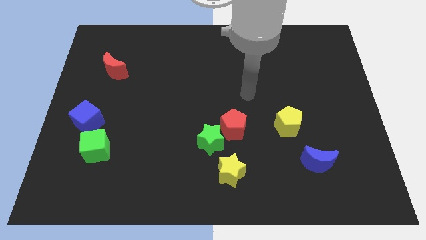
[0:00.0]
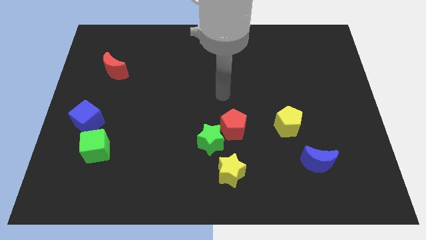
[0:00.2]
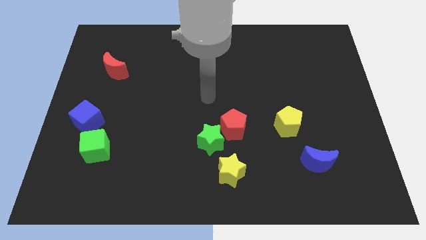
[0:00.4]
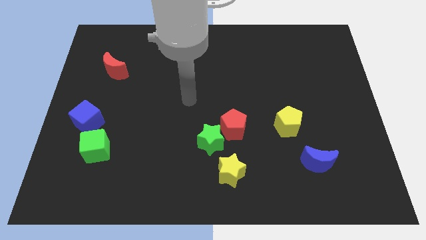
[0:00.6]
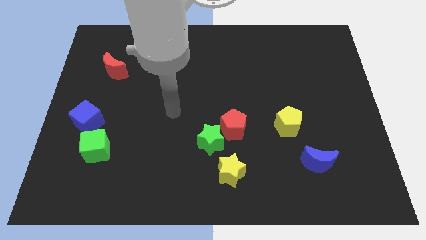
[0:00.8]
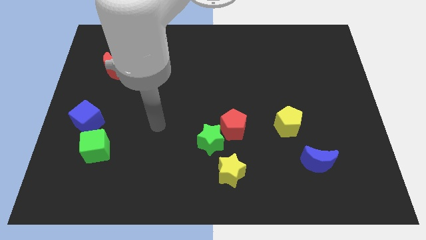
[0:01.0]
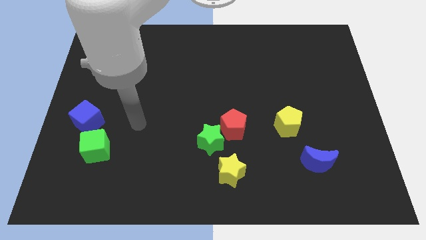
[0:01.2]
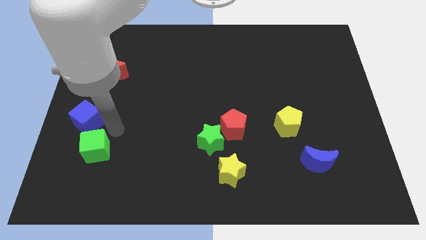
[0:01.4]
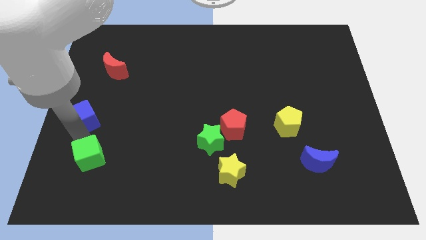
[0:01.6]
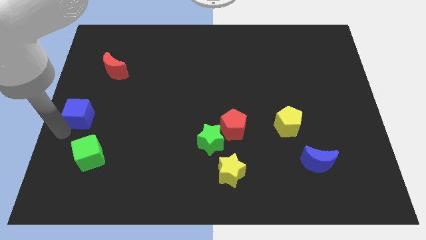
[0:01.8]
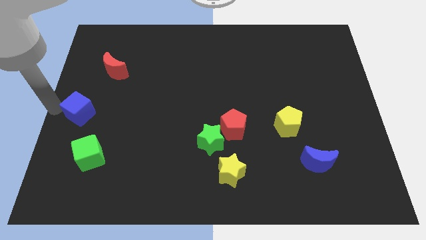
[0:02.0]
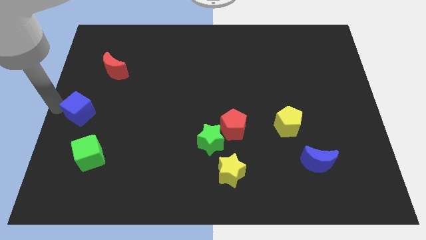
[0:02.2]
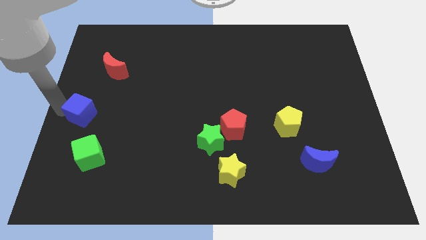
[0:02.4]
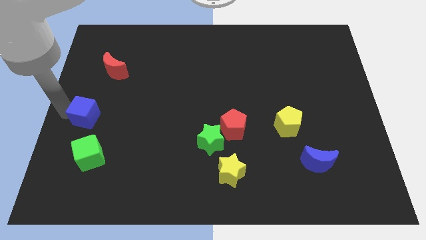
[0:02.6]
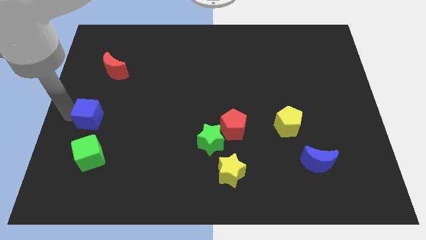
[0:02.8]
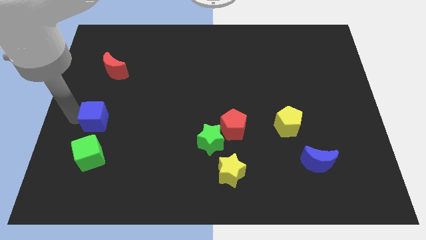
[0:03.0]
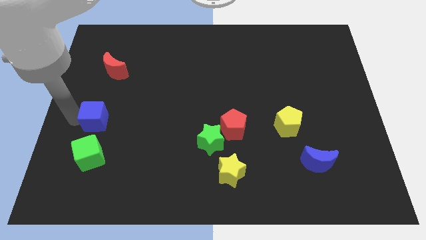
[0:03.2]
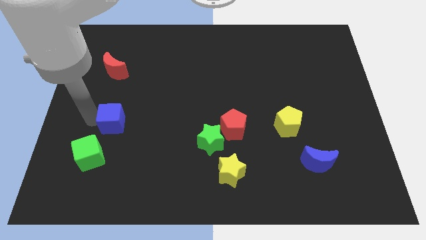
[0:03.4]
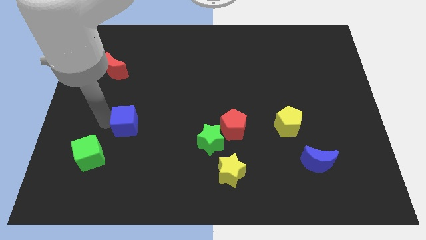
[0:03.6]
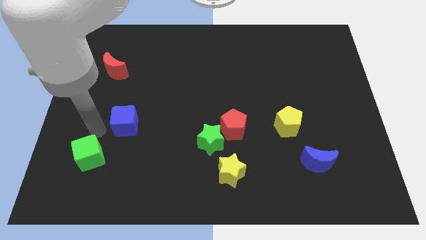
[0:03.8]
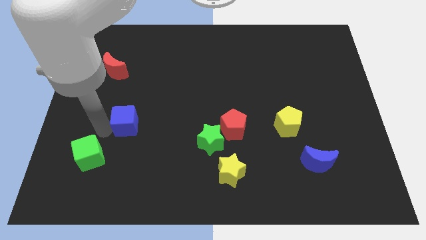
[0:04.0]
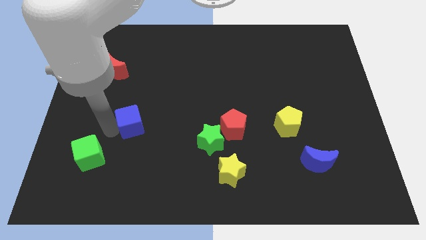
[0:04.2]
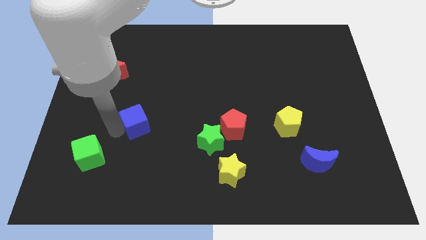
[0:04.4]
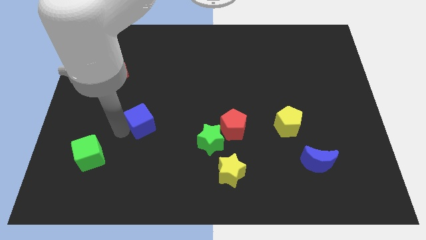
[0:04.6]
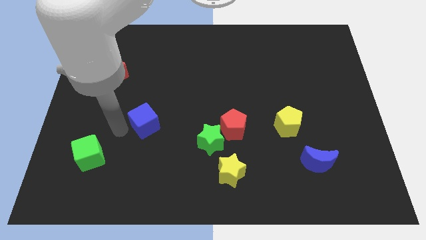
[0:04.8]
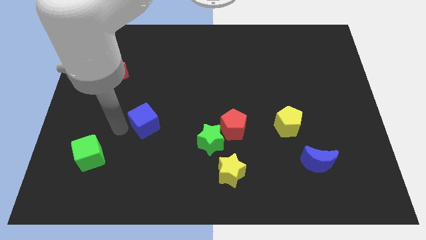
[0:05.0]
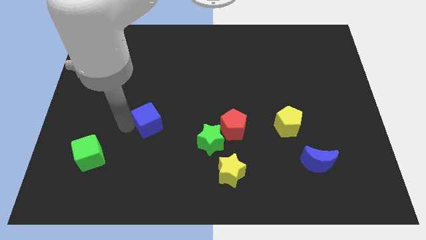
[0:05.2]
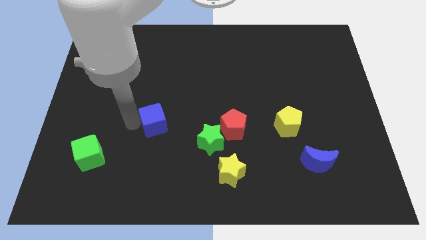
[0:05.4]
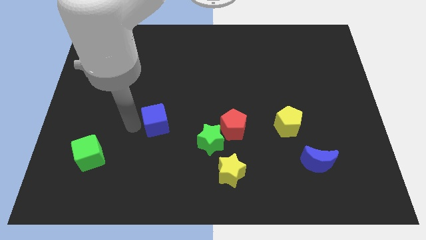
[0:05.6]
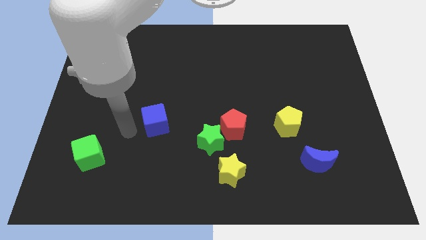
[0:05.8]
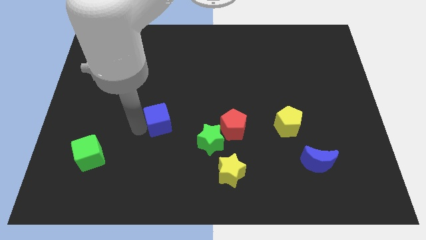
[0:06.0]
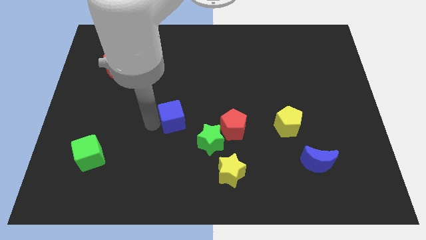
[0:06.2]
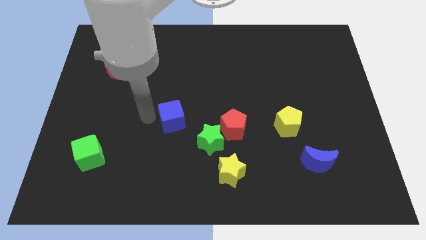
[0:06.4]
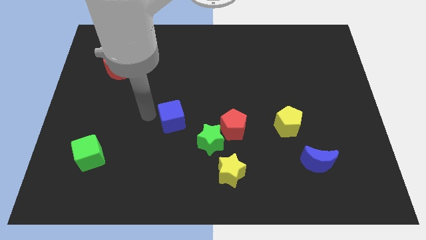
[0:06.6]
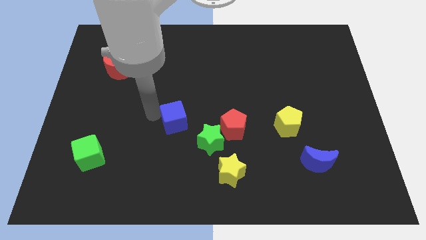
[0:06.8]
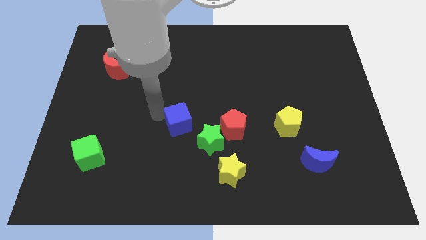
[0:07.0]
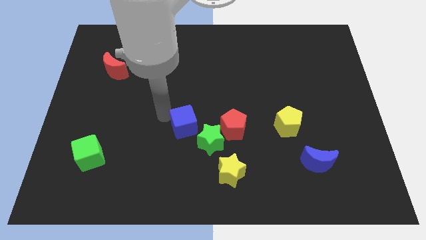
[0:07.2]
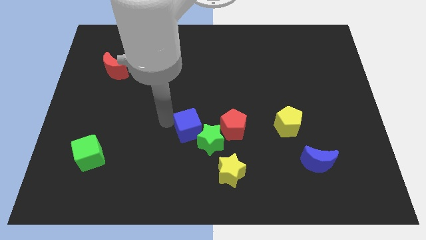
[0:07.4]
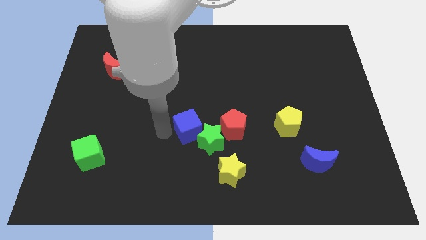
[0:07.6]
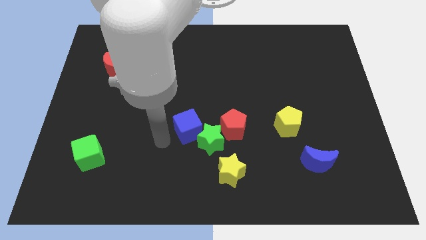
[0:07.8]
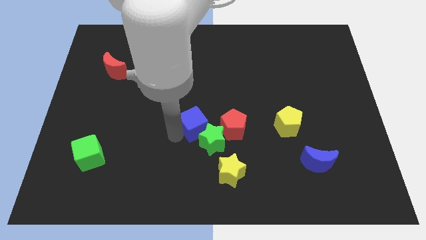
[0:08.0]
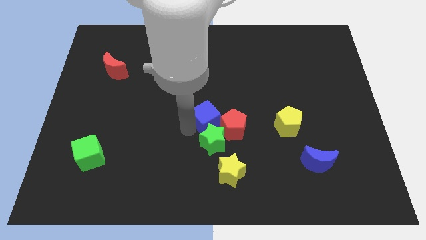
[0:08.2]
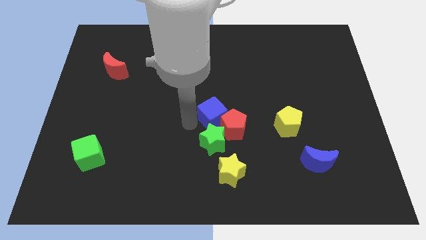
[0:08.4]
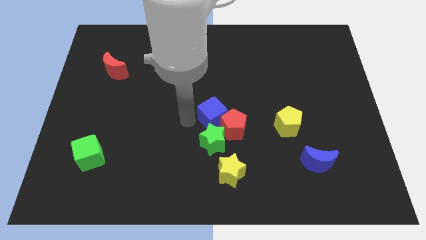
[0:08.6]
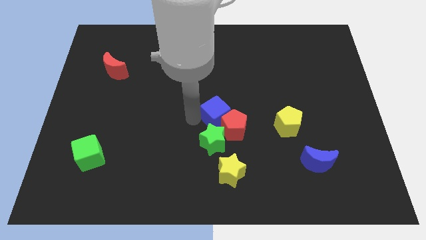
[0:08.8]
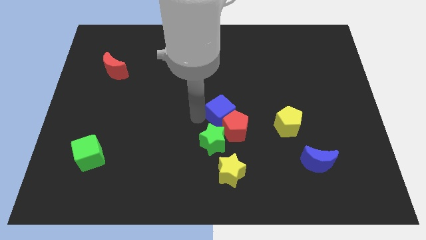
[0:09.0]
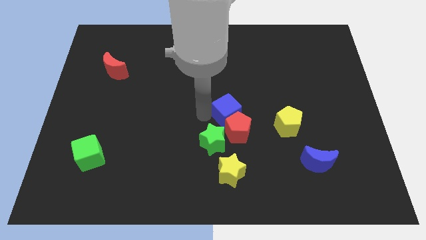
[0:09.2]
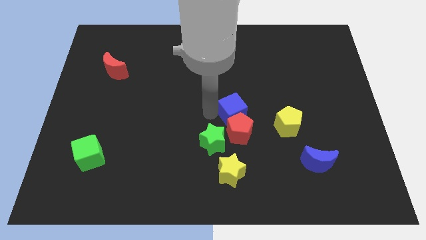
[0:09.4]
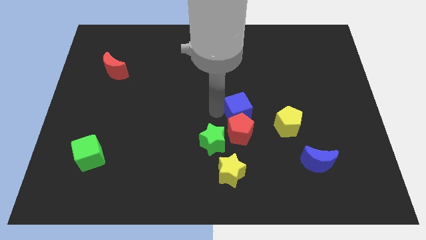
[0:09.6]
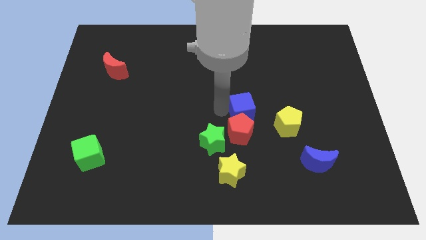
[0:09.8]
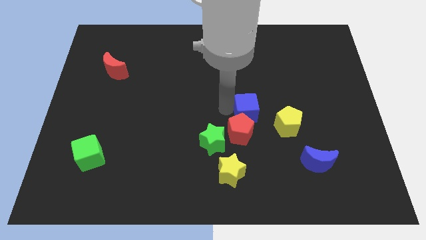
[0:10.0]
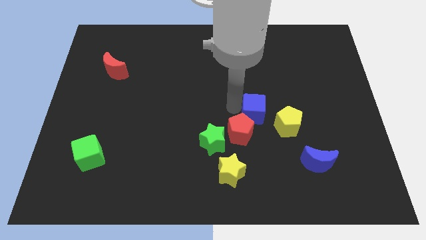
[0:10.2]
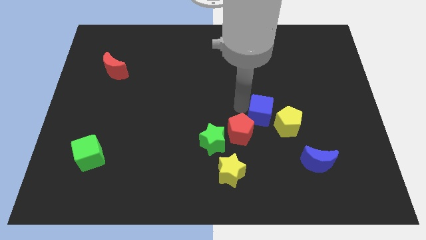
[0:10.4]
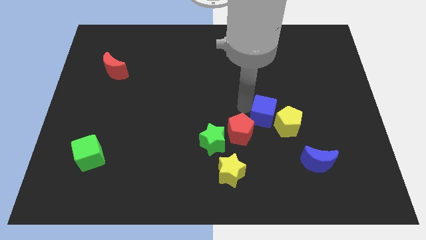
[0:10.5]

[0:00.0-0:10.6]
put the blue cube to the yellow pentagon

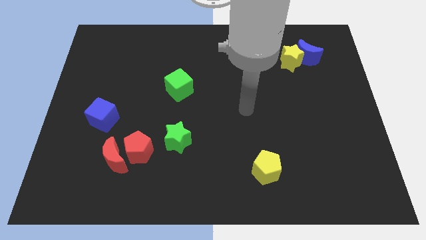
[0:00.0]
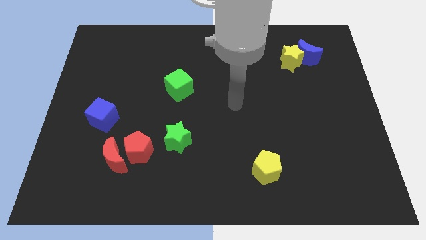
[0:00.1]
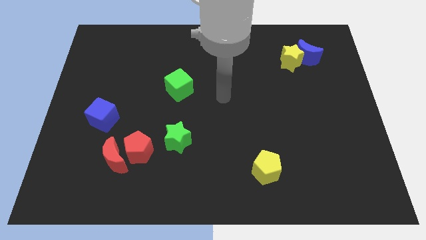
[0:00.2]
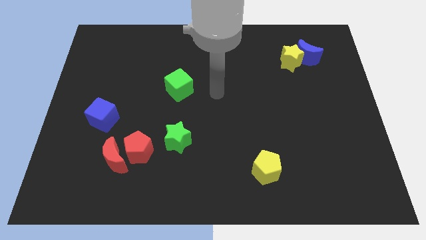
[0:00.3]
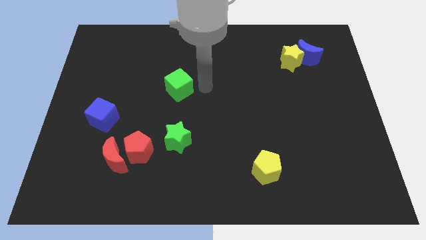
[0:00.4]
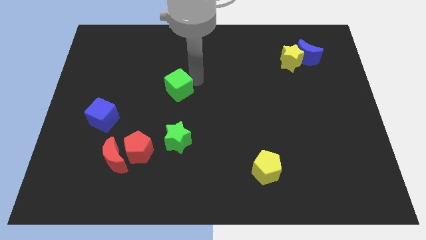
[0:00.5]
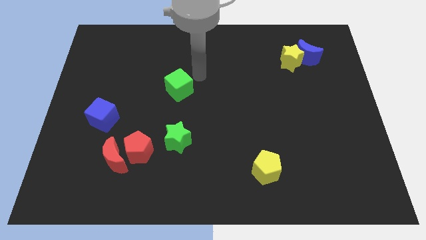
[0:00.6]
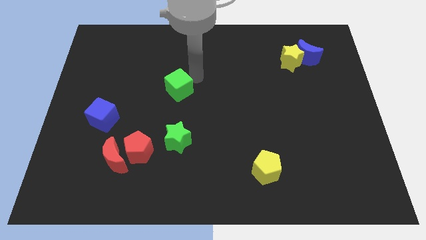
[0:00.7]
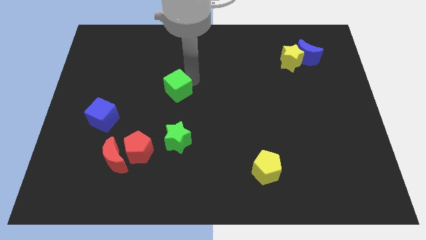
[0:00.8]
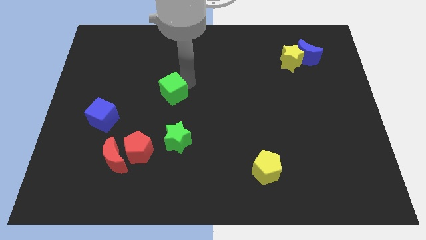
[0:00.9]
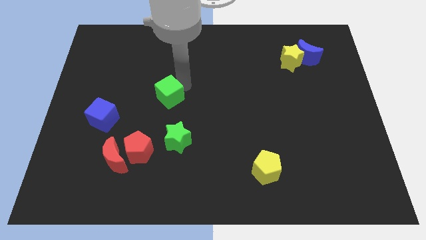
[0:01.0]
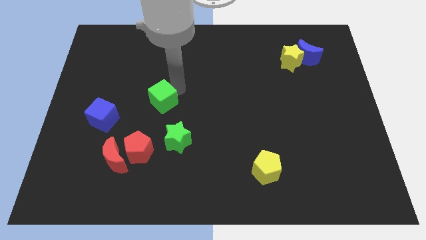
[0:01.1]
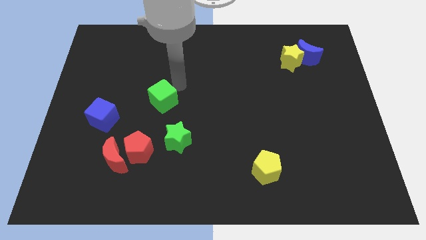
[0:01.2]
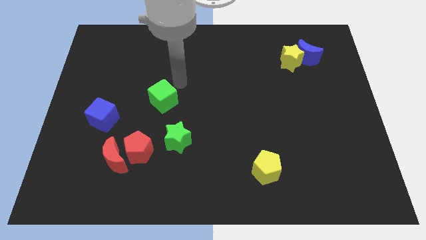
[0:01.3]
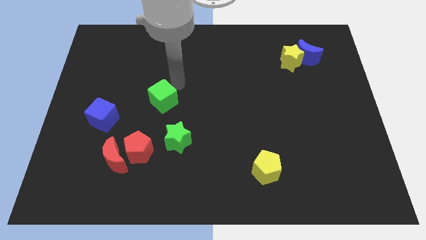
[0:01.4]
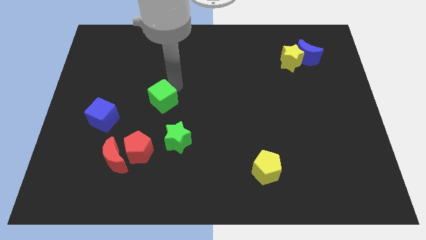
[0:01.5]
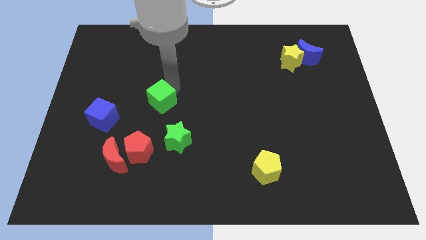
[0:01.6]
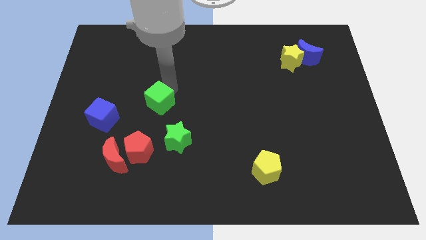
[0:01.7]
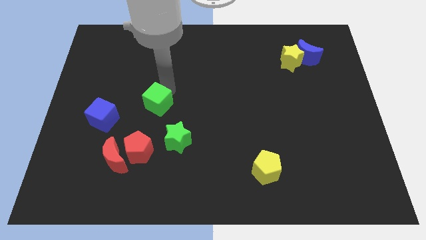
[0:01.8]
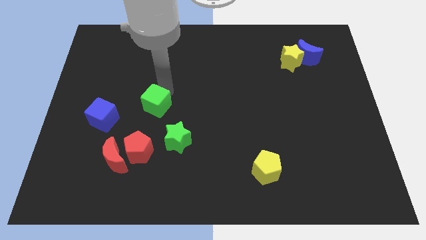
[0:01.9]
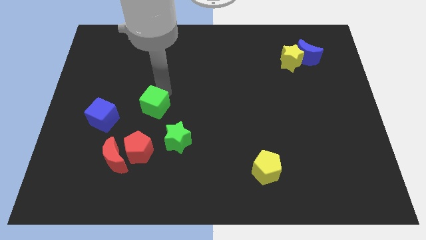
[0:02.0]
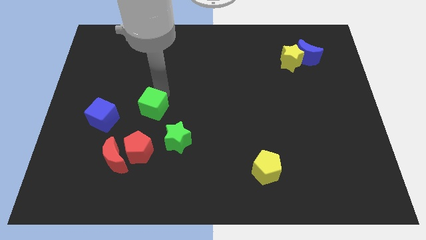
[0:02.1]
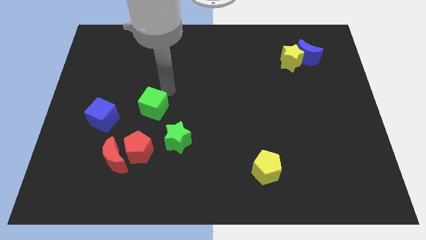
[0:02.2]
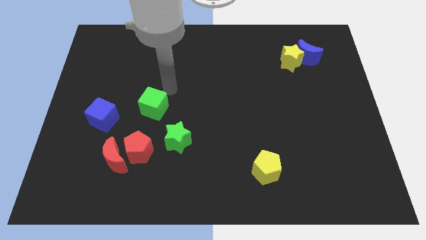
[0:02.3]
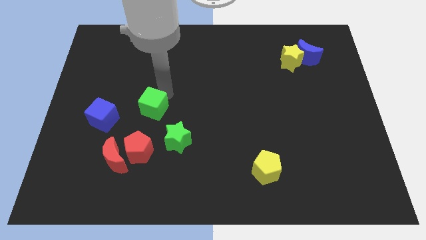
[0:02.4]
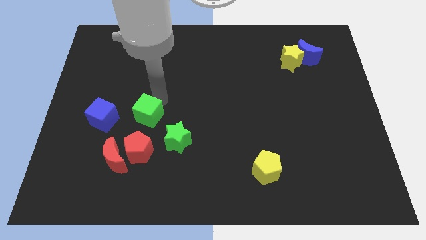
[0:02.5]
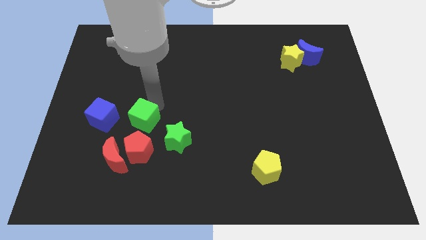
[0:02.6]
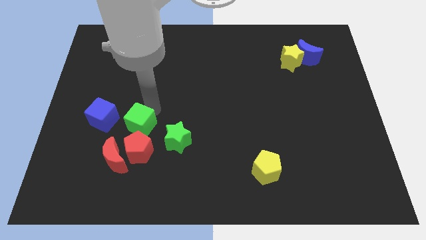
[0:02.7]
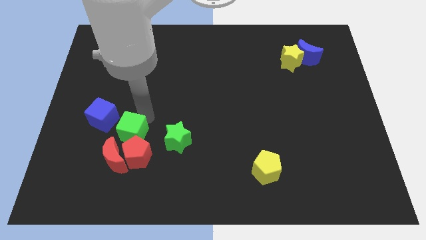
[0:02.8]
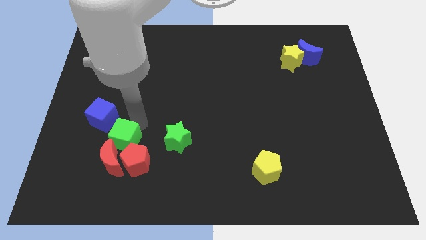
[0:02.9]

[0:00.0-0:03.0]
put the green cube close to the red moon
